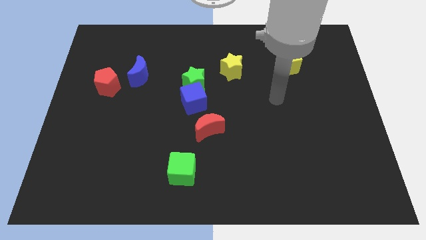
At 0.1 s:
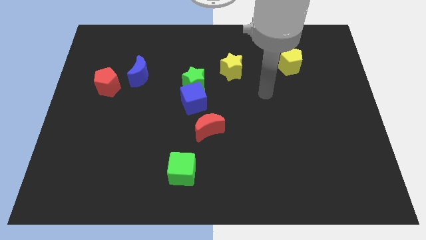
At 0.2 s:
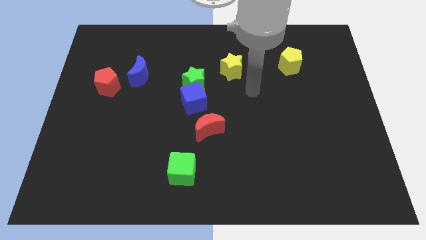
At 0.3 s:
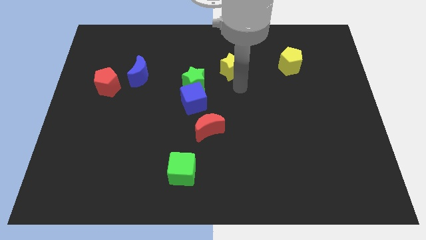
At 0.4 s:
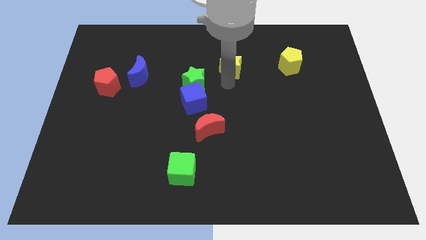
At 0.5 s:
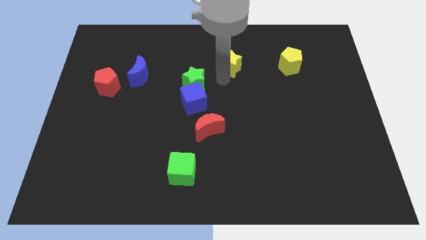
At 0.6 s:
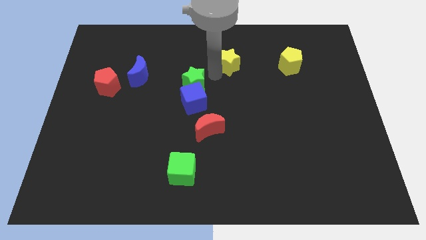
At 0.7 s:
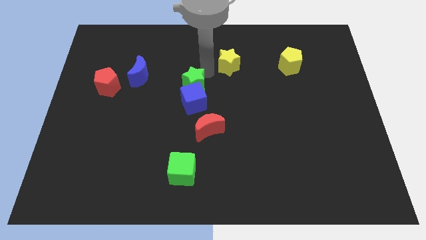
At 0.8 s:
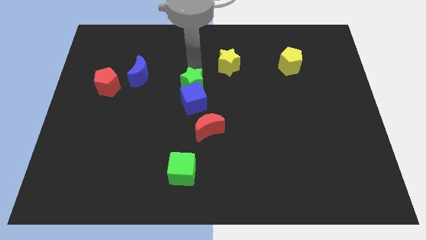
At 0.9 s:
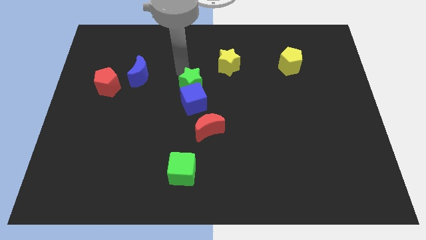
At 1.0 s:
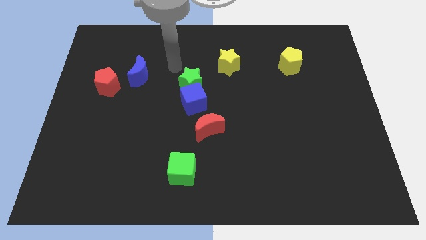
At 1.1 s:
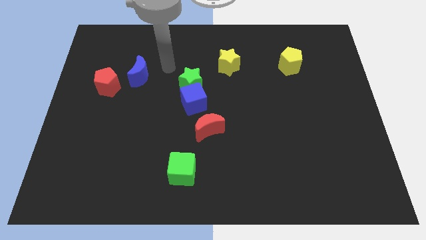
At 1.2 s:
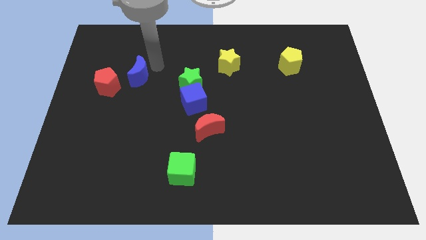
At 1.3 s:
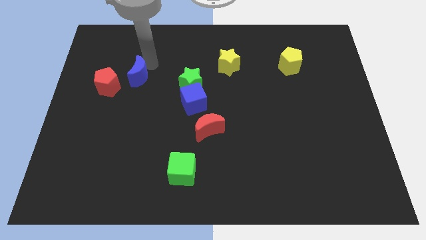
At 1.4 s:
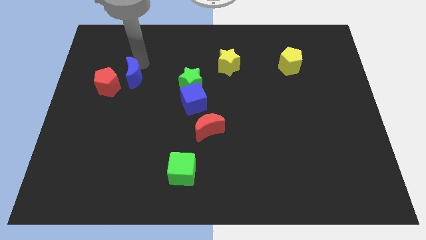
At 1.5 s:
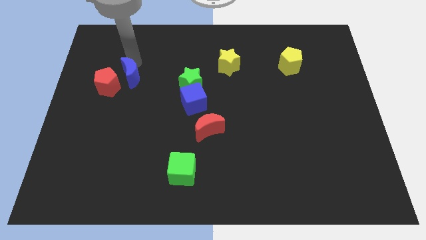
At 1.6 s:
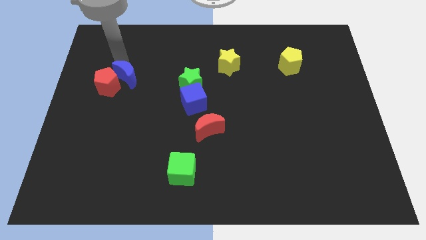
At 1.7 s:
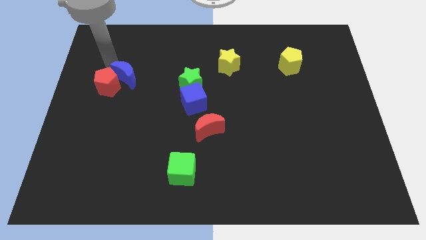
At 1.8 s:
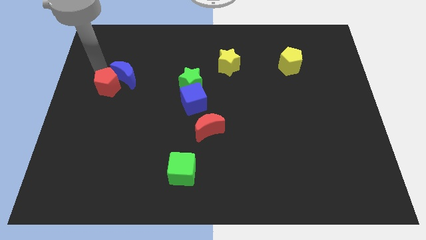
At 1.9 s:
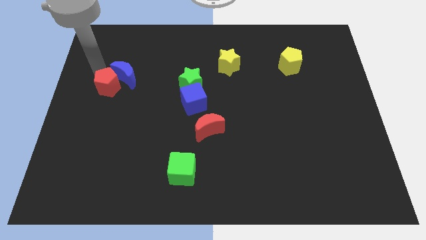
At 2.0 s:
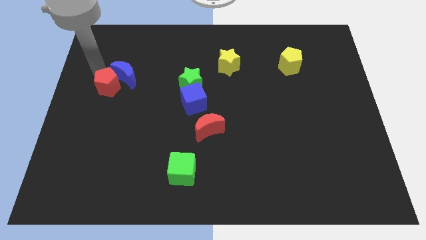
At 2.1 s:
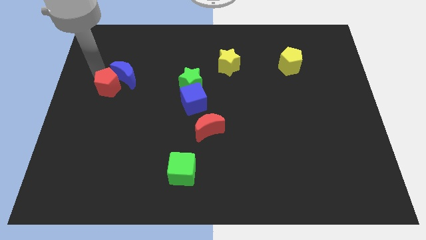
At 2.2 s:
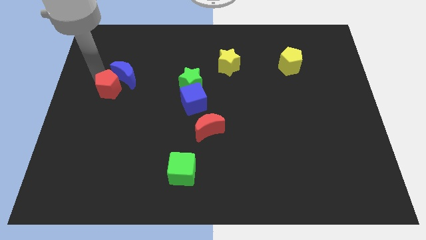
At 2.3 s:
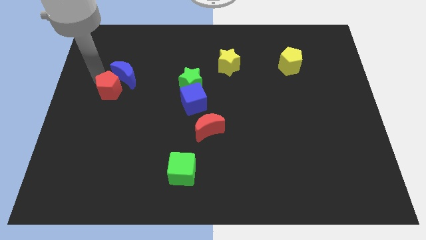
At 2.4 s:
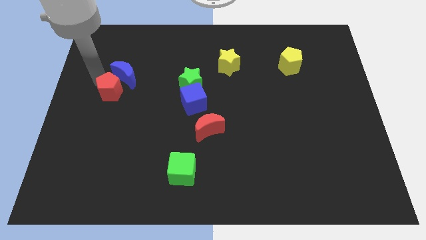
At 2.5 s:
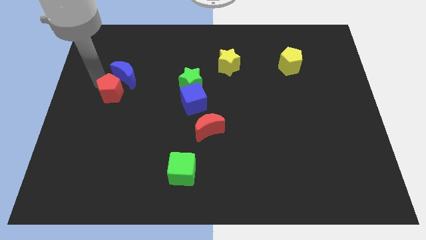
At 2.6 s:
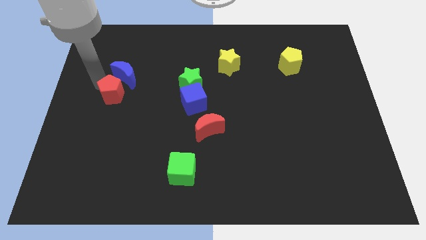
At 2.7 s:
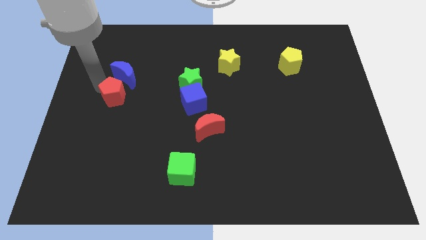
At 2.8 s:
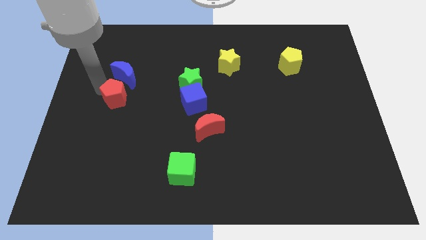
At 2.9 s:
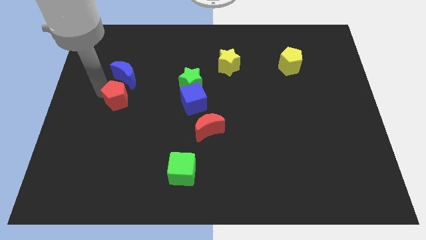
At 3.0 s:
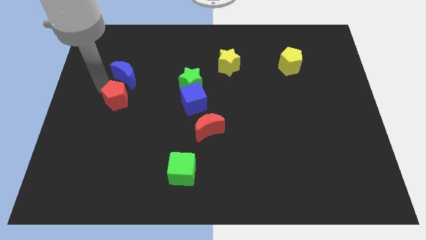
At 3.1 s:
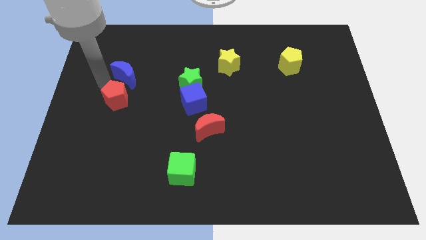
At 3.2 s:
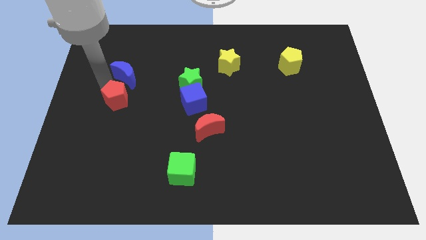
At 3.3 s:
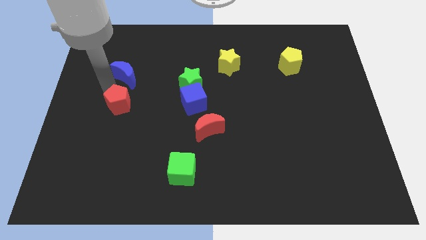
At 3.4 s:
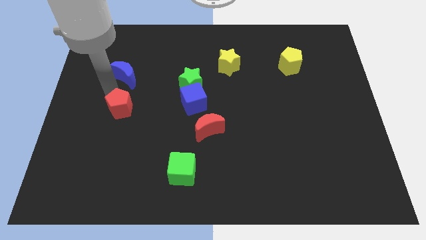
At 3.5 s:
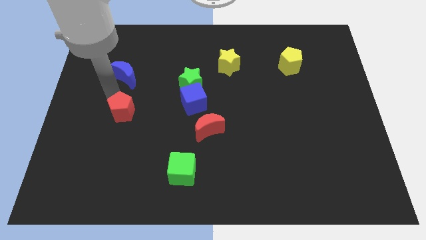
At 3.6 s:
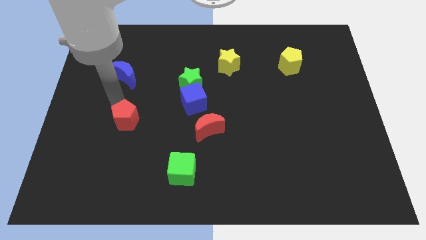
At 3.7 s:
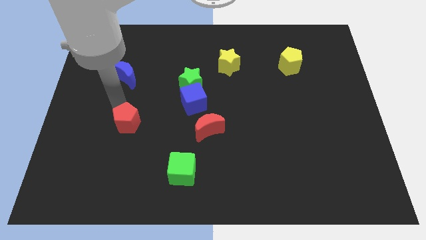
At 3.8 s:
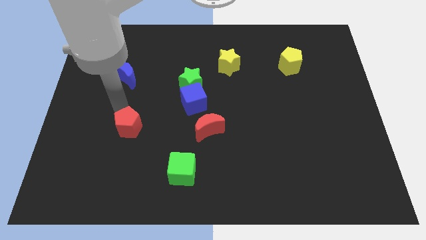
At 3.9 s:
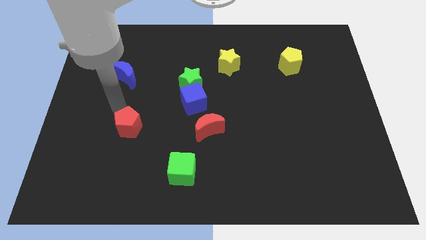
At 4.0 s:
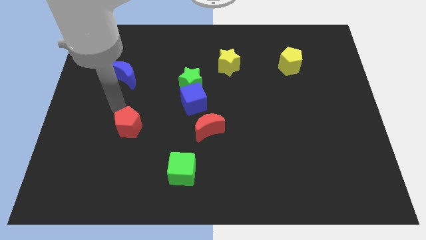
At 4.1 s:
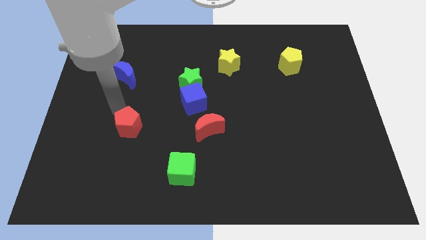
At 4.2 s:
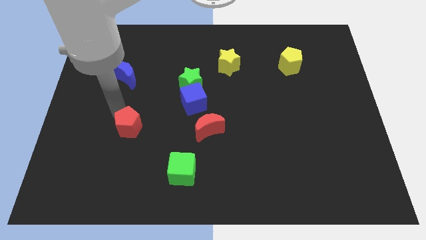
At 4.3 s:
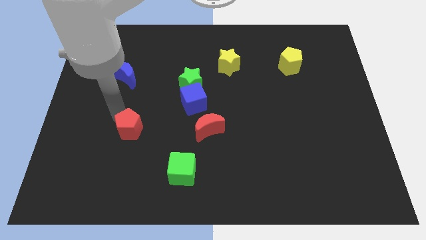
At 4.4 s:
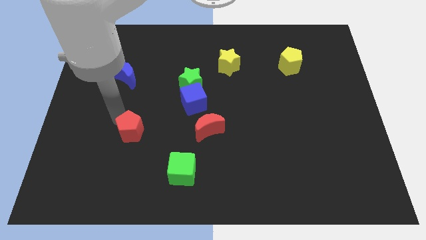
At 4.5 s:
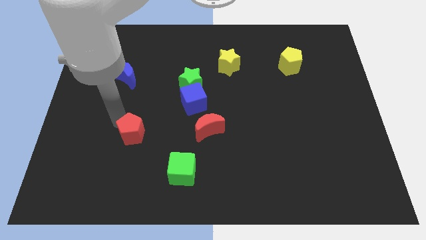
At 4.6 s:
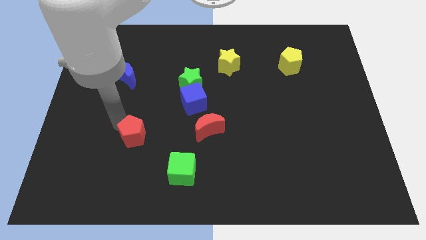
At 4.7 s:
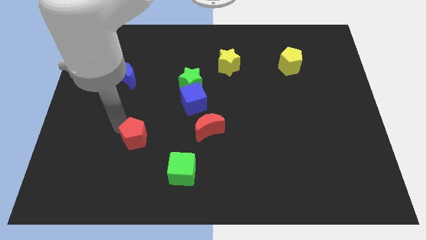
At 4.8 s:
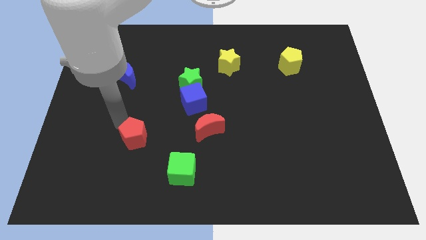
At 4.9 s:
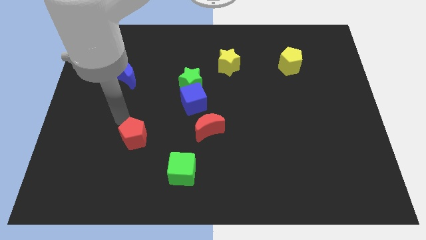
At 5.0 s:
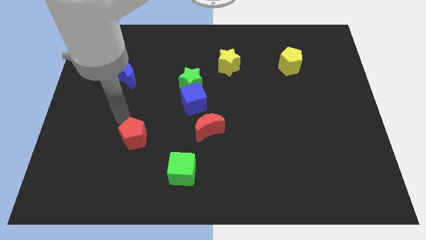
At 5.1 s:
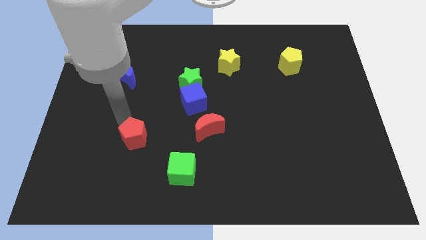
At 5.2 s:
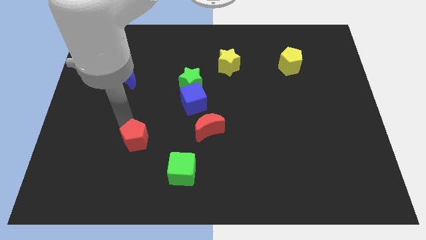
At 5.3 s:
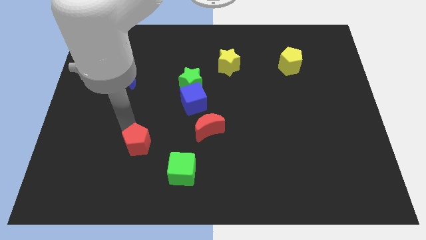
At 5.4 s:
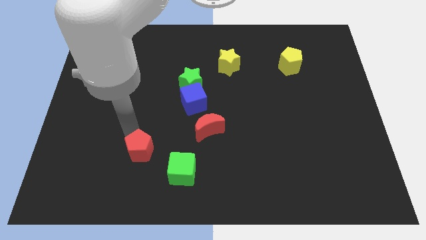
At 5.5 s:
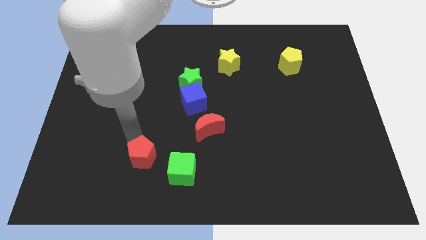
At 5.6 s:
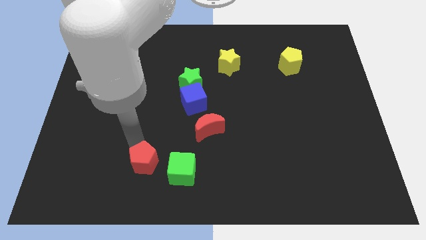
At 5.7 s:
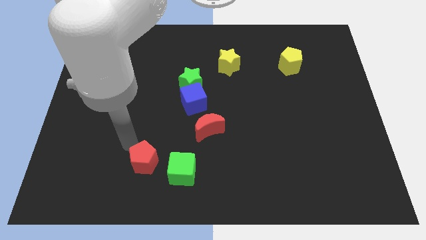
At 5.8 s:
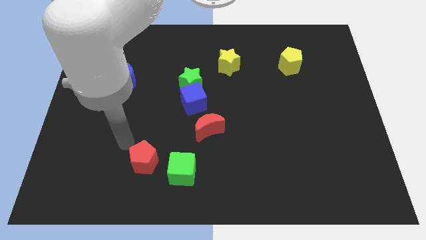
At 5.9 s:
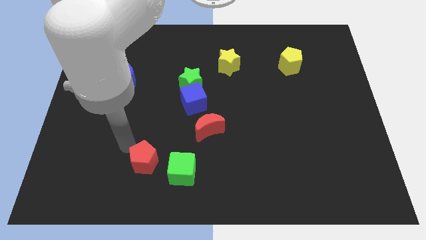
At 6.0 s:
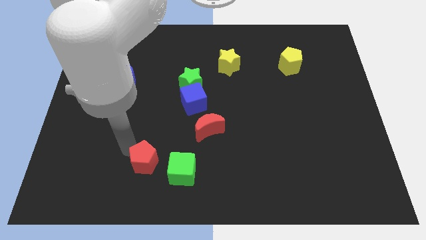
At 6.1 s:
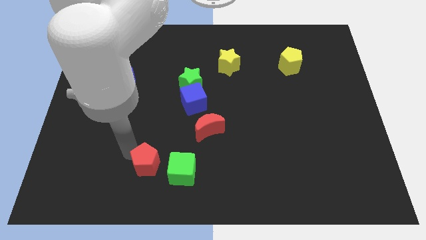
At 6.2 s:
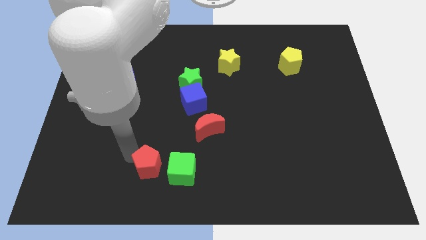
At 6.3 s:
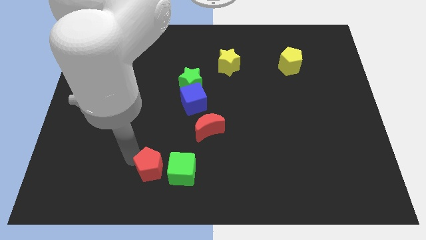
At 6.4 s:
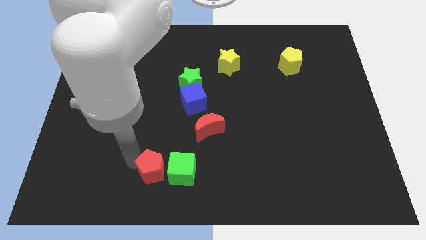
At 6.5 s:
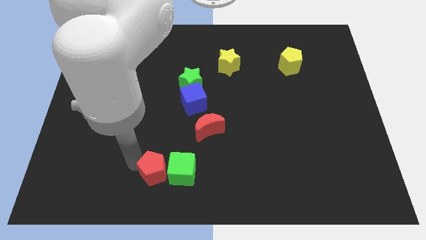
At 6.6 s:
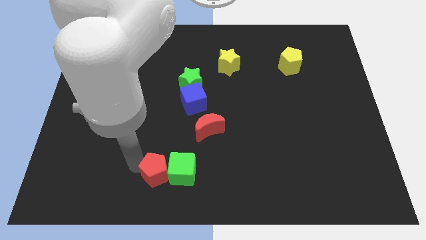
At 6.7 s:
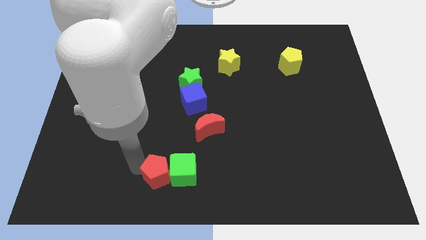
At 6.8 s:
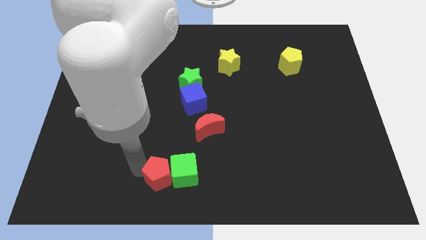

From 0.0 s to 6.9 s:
slide the red pentagon to the bottom side
